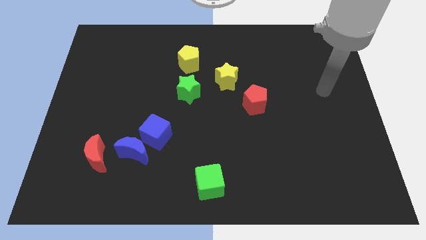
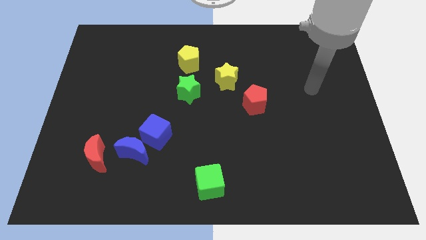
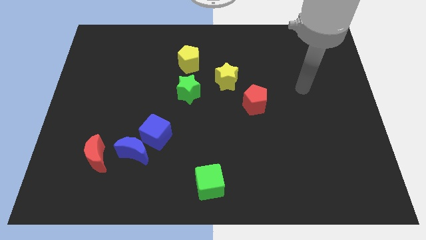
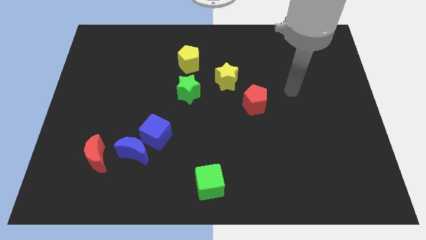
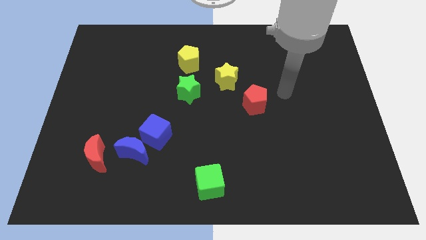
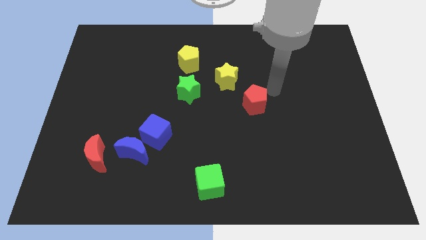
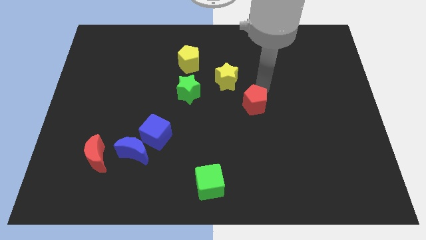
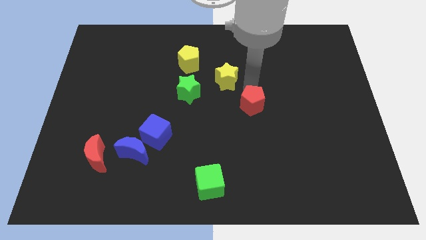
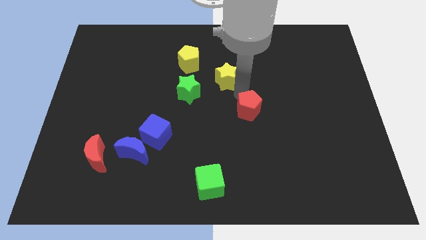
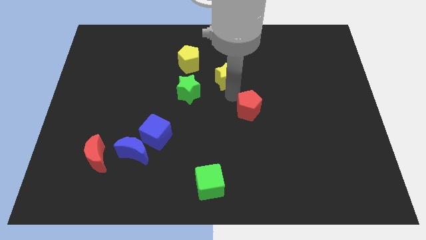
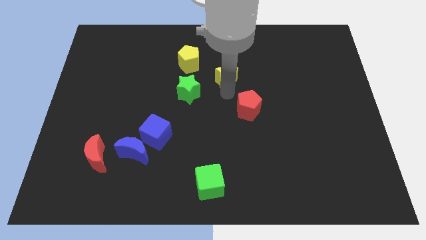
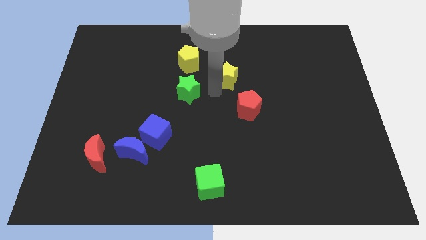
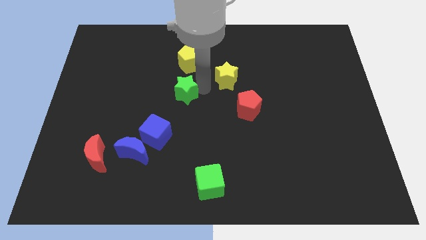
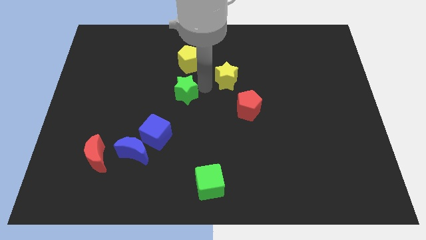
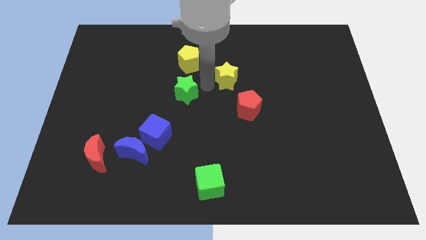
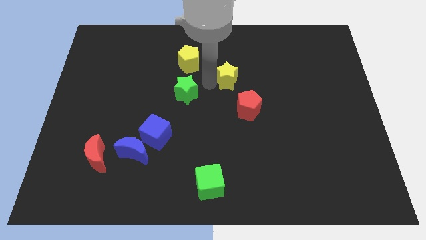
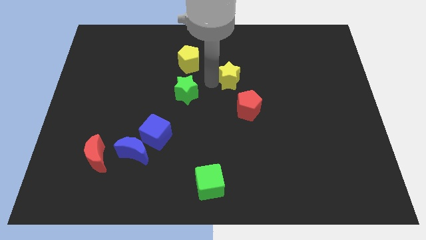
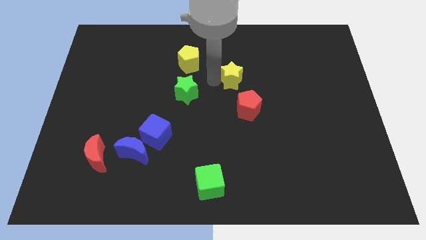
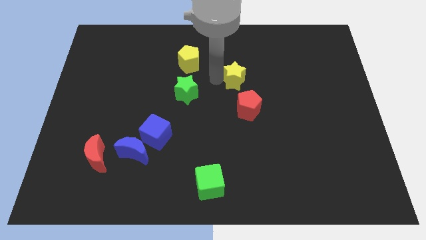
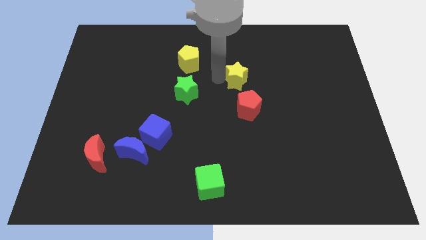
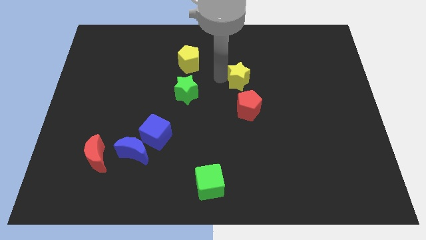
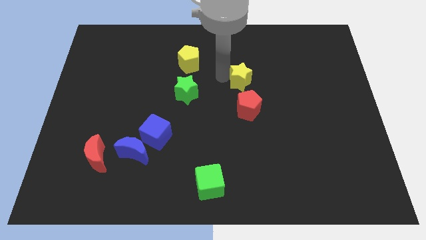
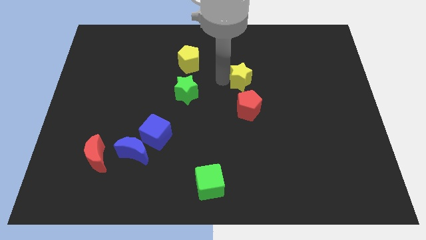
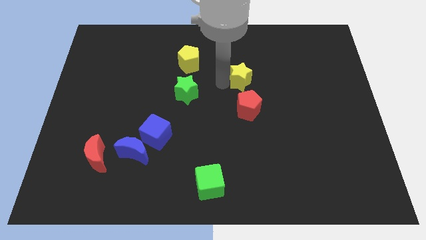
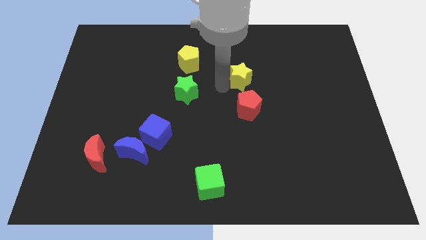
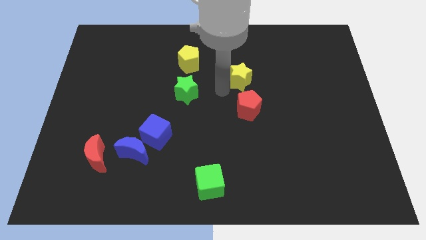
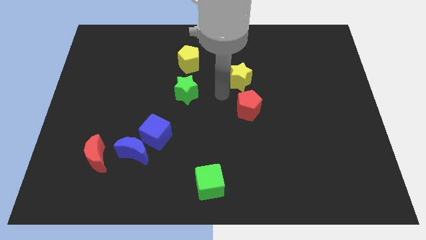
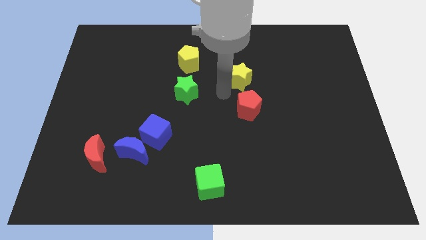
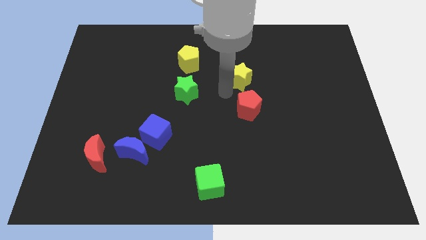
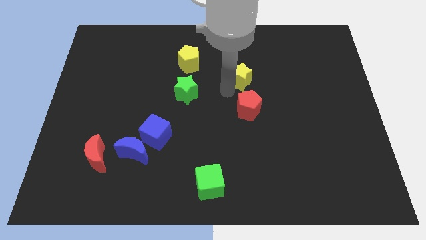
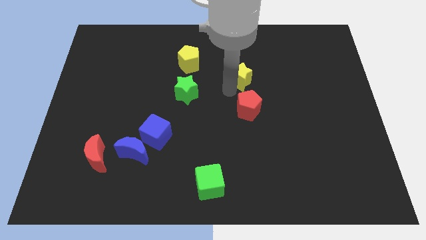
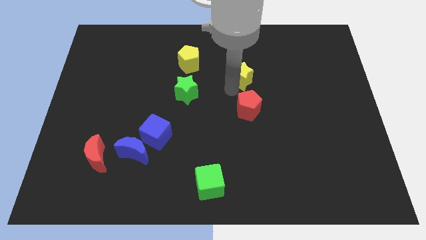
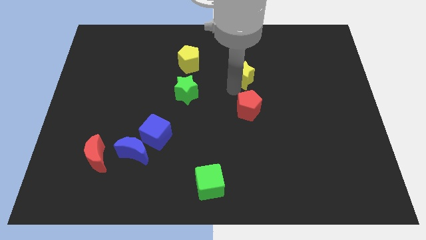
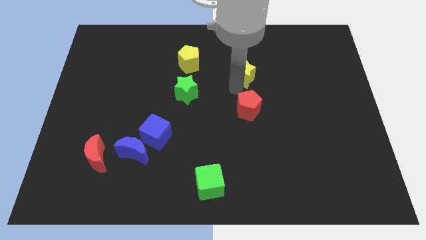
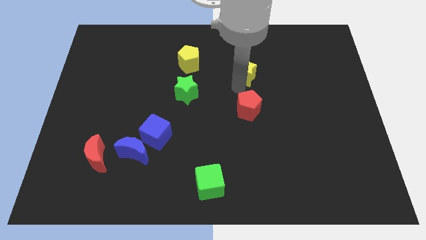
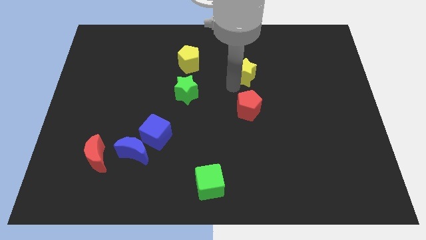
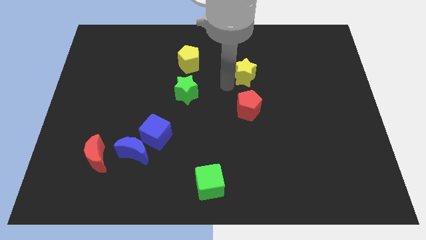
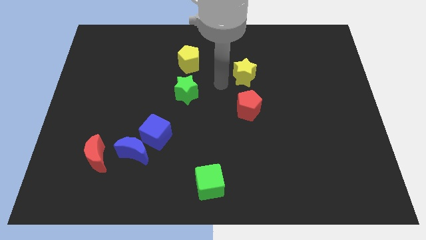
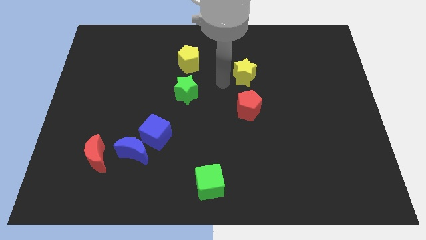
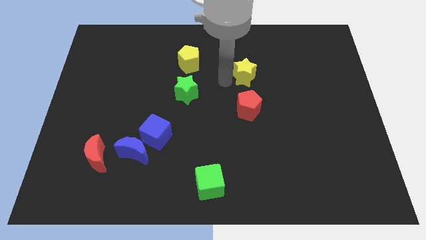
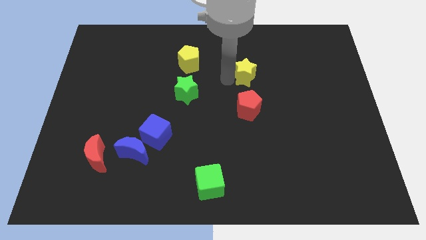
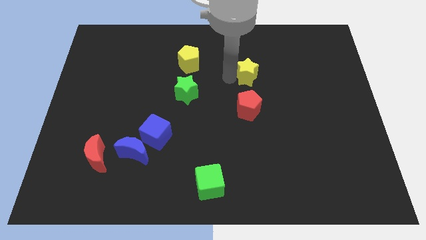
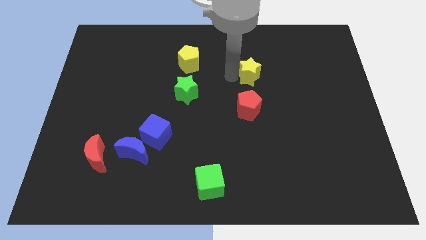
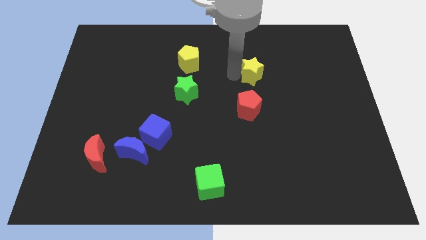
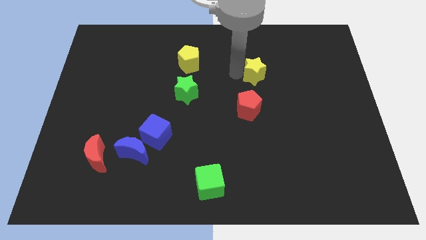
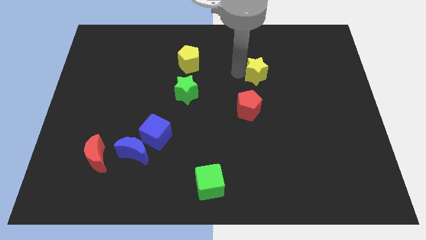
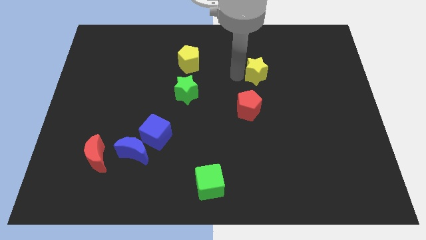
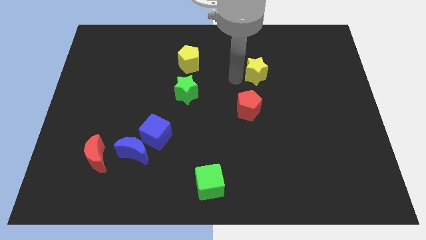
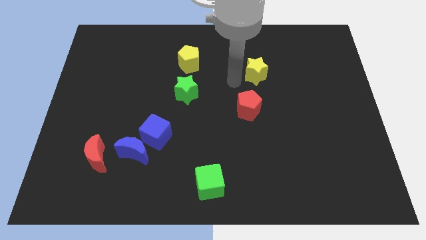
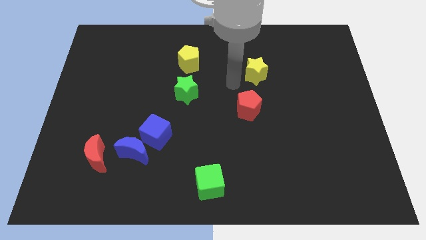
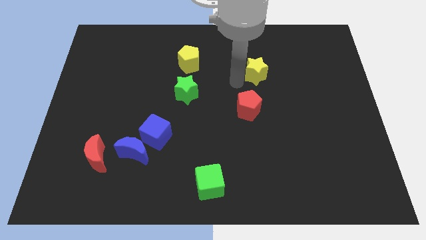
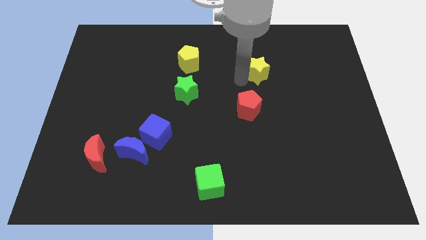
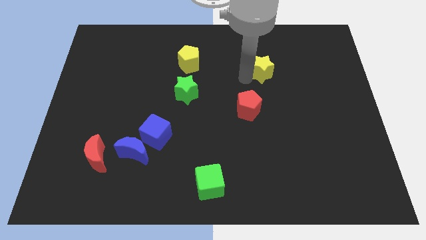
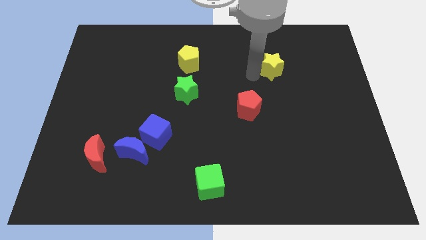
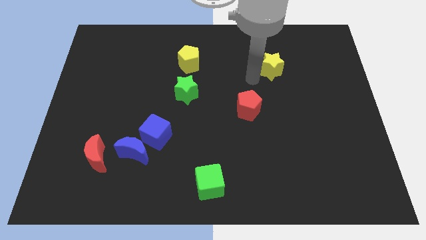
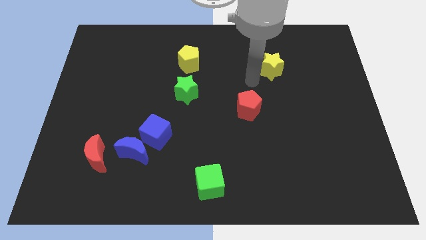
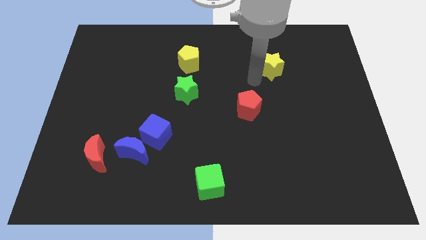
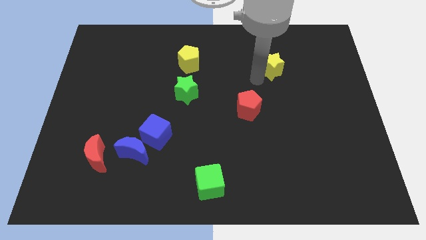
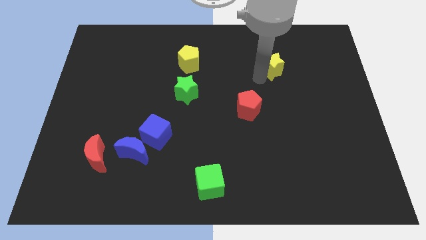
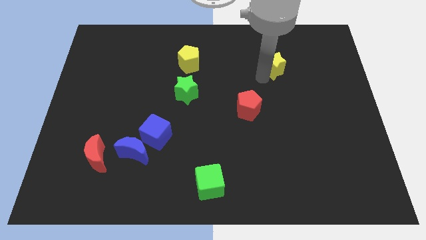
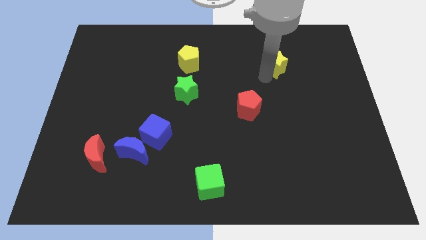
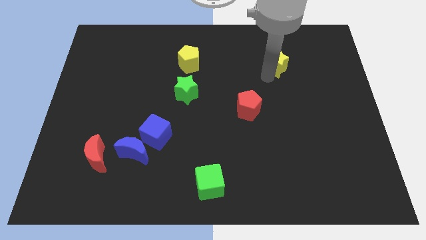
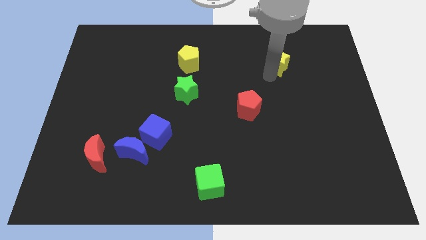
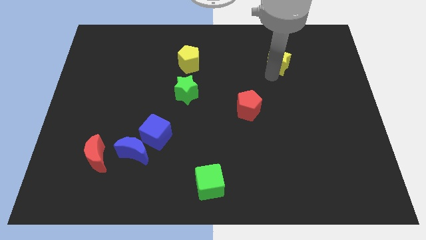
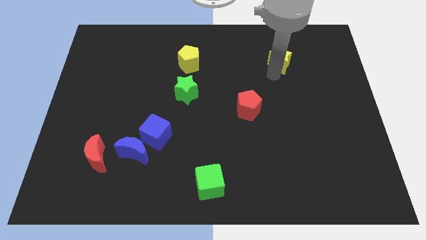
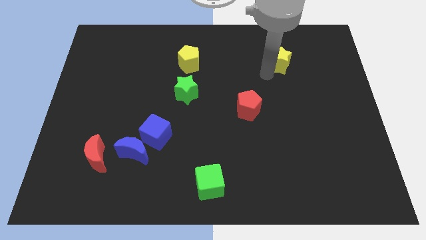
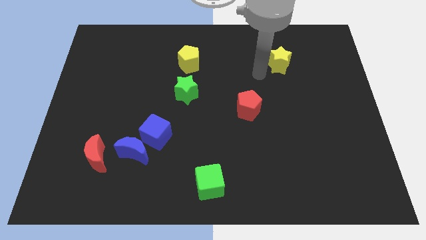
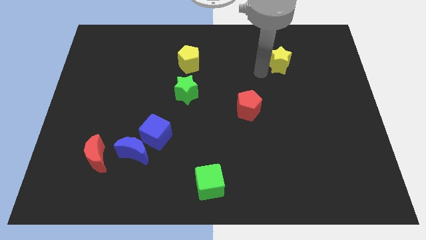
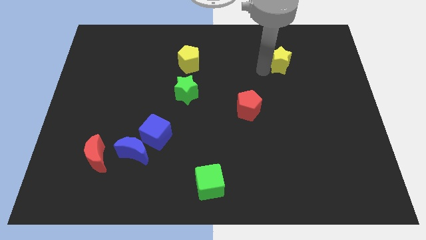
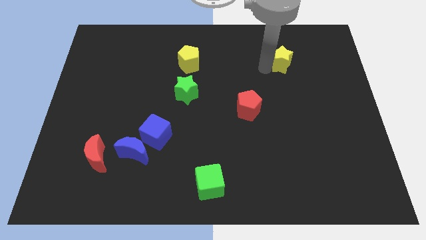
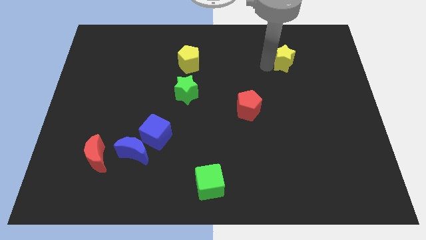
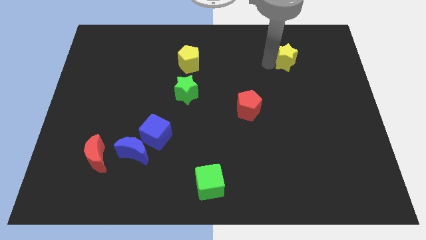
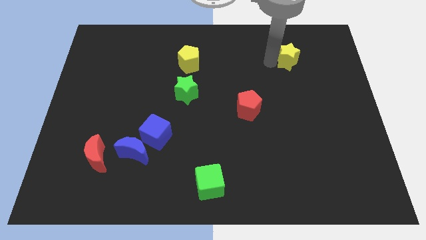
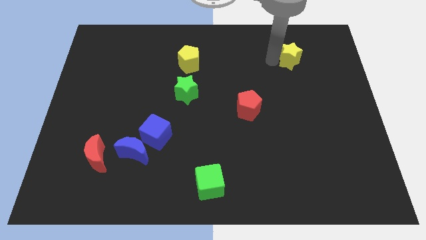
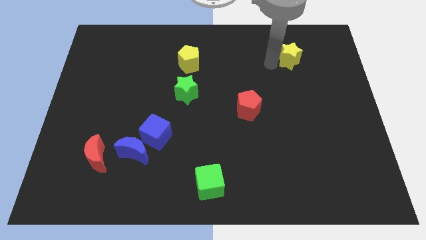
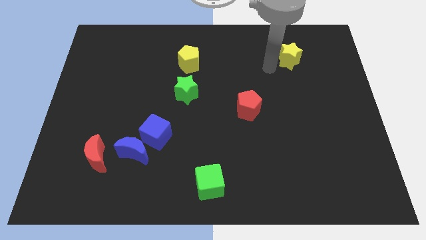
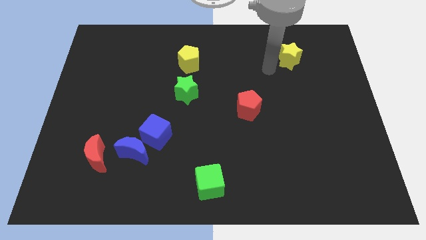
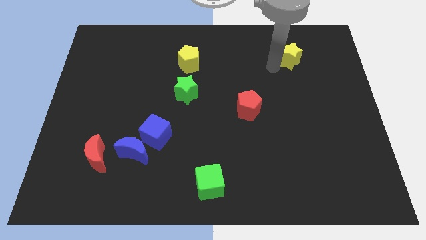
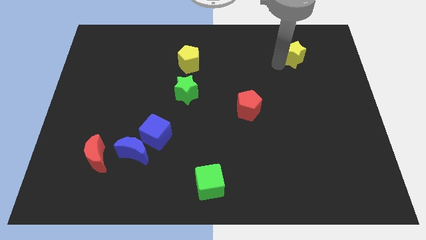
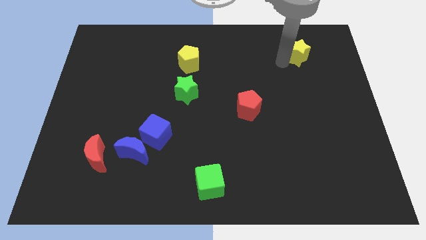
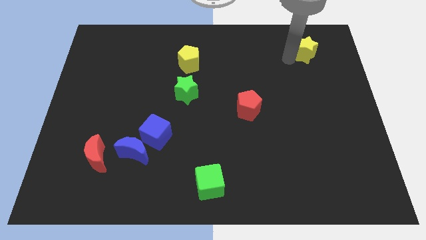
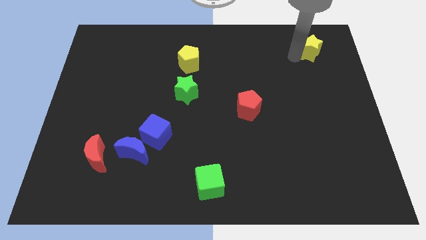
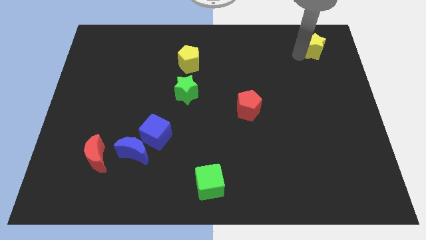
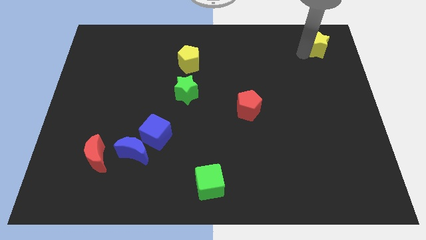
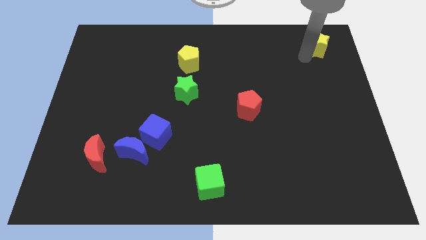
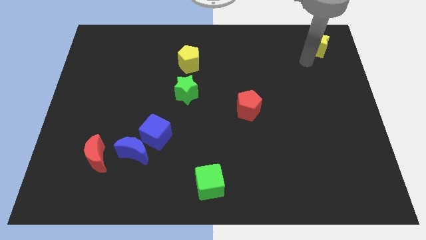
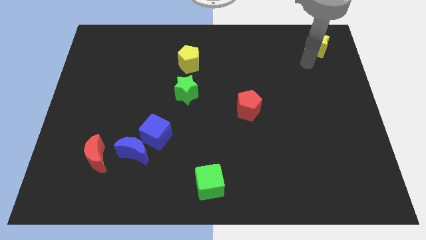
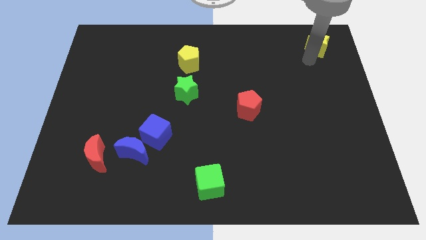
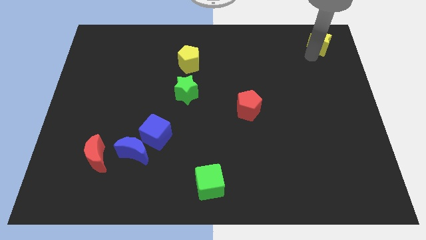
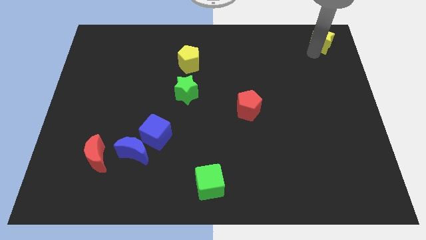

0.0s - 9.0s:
move the yellow star to the top right of the board
